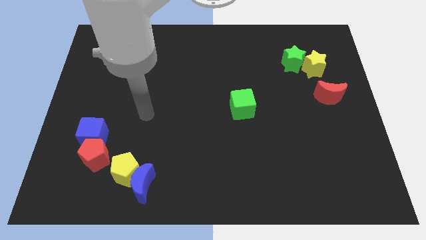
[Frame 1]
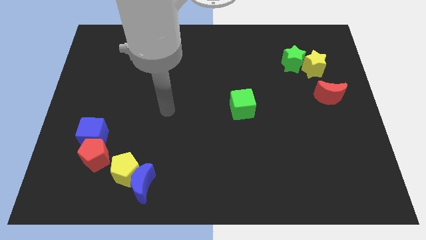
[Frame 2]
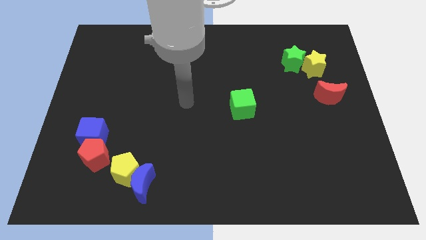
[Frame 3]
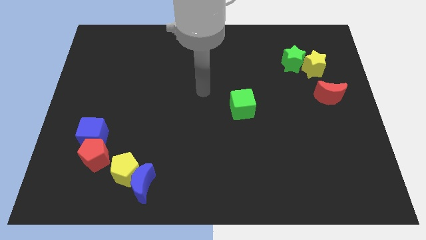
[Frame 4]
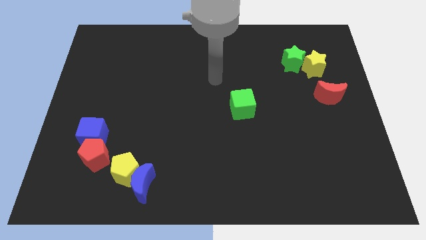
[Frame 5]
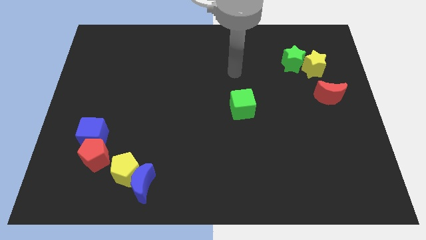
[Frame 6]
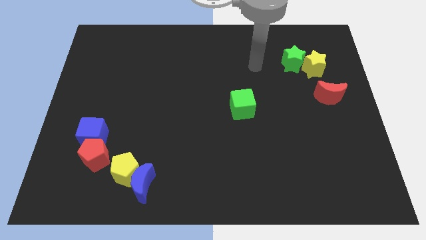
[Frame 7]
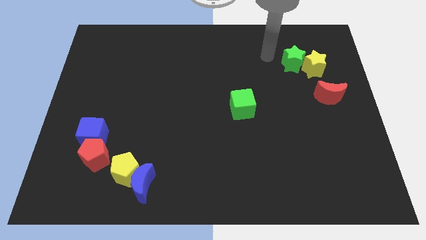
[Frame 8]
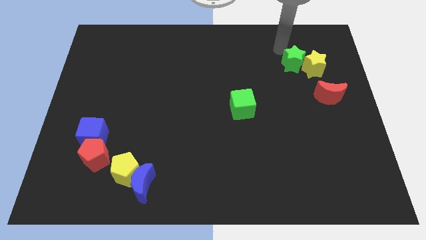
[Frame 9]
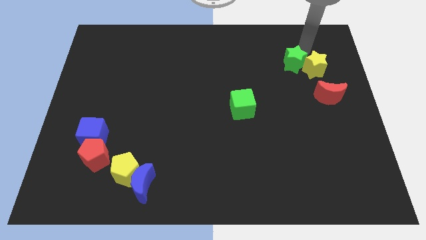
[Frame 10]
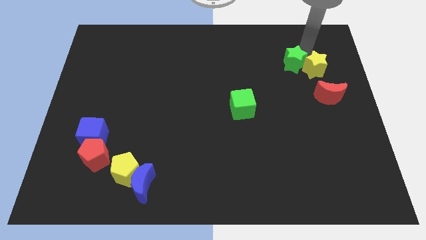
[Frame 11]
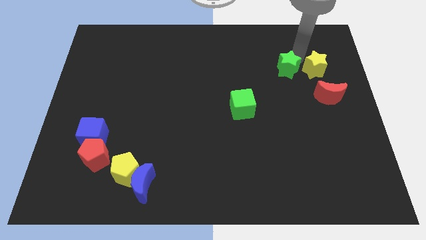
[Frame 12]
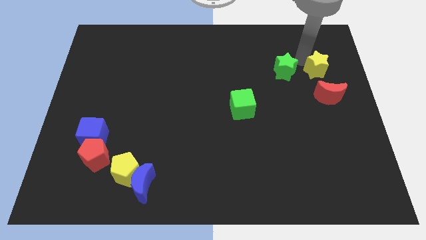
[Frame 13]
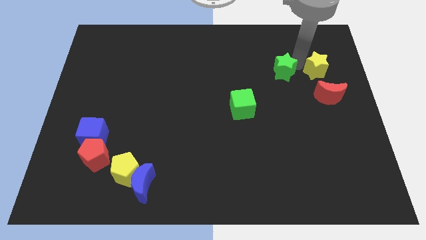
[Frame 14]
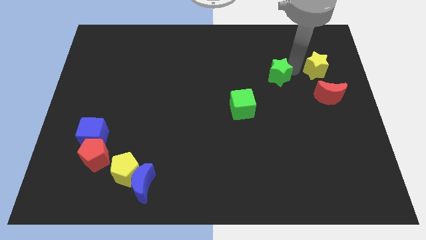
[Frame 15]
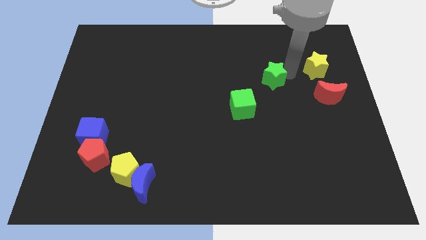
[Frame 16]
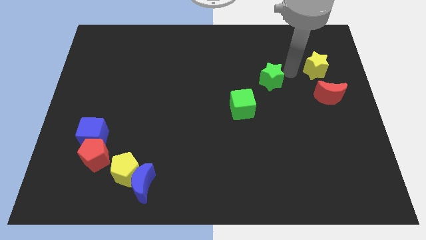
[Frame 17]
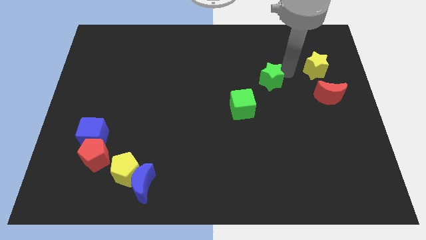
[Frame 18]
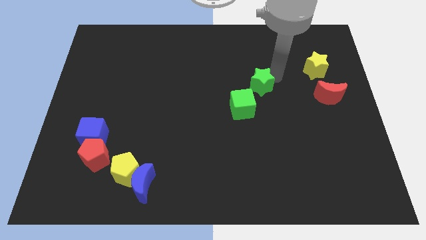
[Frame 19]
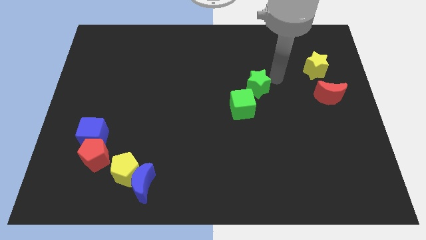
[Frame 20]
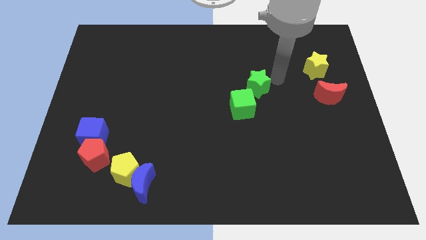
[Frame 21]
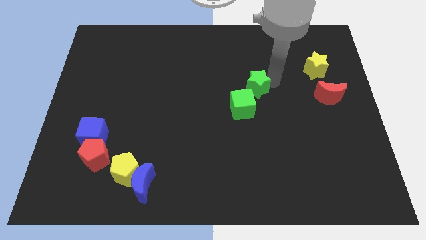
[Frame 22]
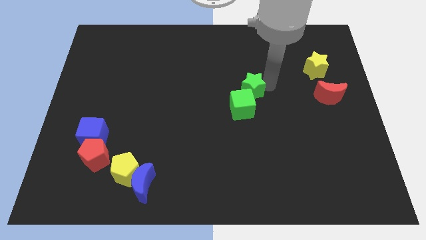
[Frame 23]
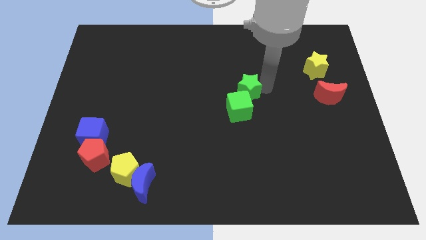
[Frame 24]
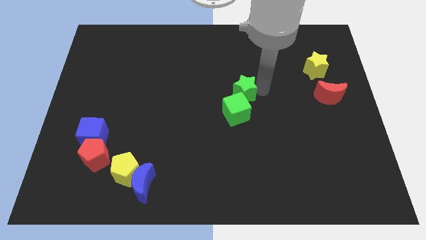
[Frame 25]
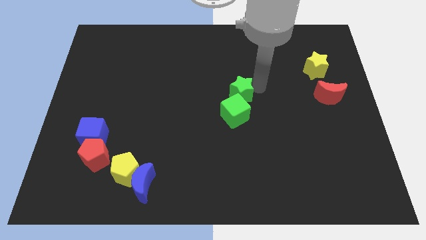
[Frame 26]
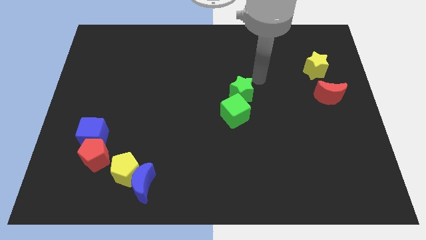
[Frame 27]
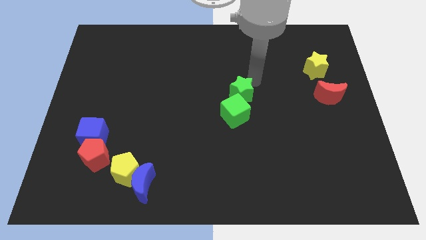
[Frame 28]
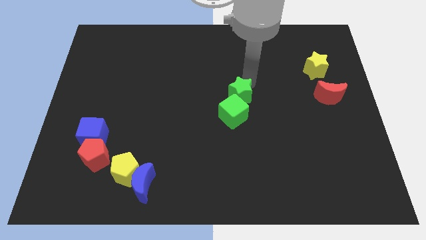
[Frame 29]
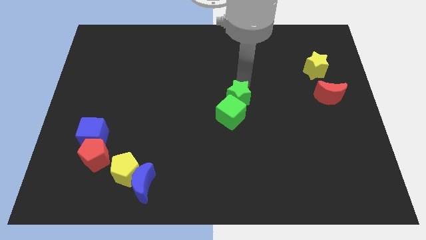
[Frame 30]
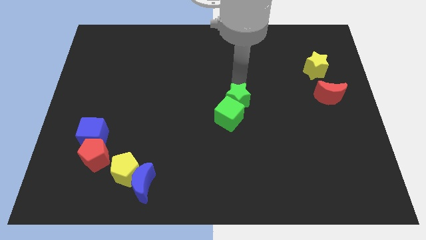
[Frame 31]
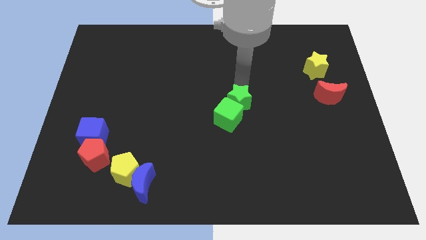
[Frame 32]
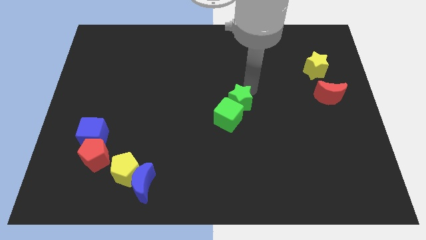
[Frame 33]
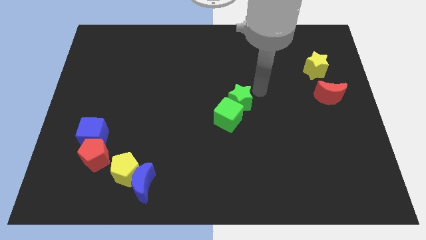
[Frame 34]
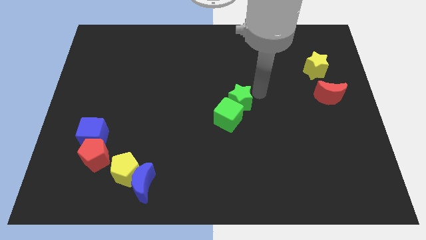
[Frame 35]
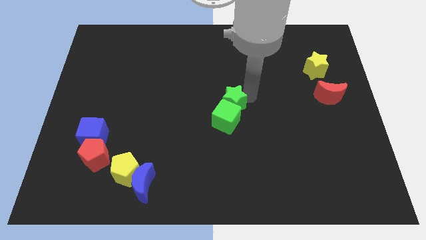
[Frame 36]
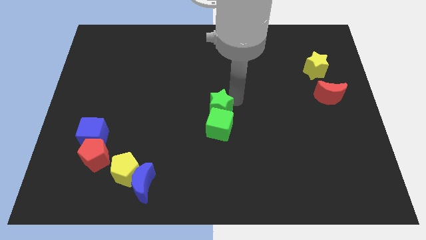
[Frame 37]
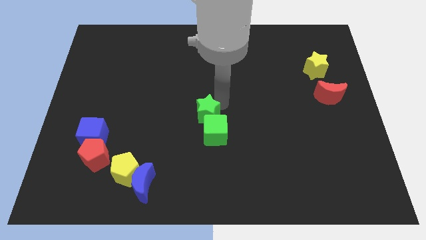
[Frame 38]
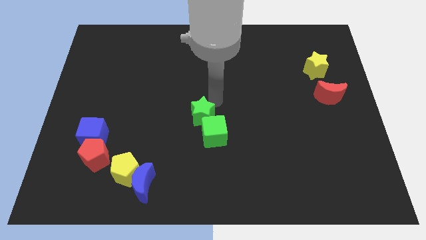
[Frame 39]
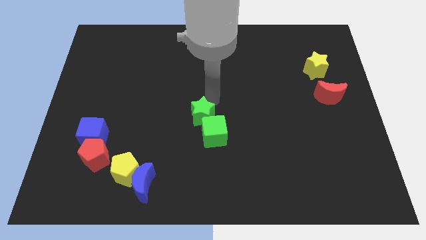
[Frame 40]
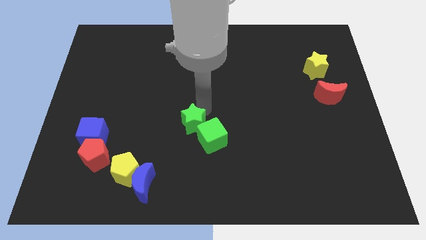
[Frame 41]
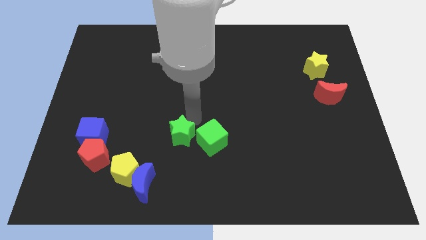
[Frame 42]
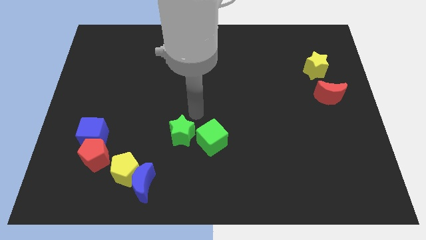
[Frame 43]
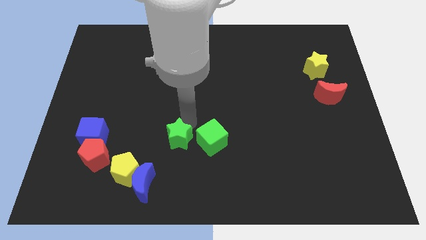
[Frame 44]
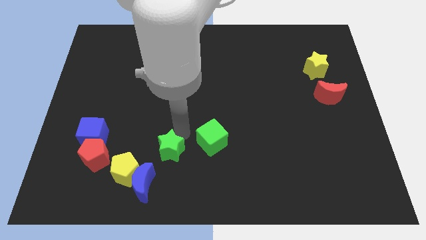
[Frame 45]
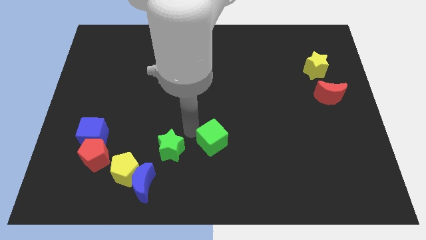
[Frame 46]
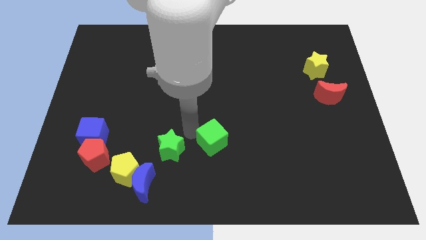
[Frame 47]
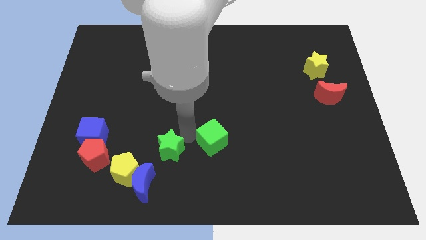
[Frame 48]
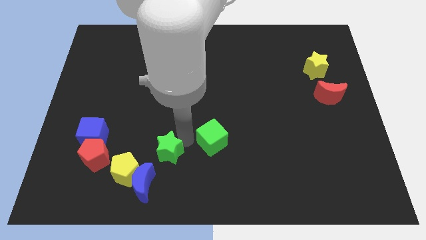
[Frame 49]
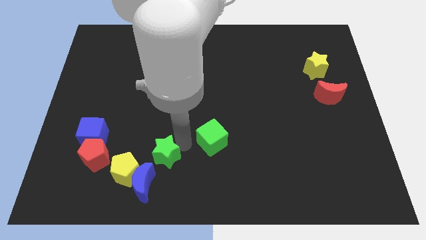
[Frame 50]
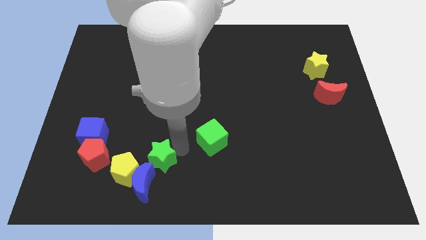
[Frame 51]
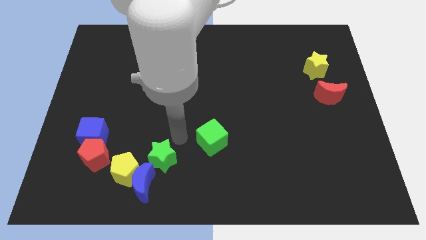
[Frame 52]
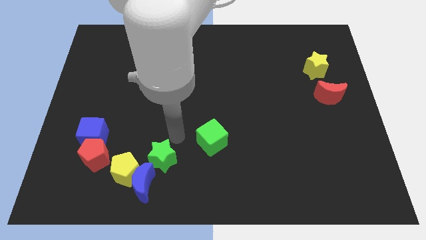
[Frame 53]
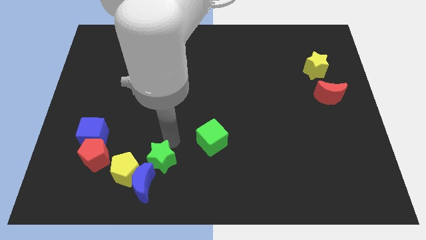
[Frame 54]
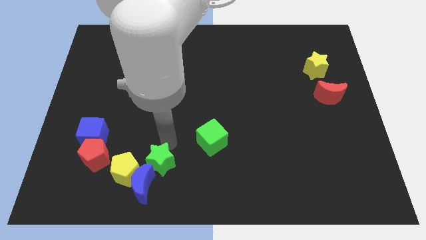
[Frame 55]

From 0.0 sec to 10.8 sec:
put the green star next to the blue moon

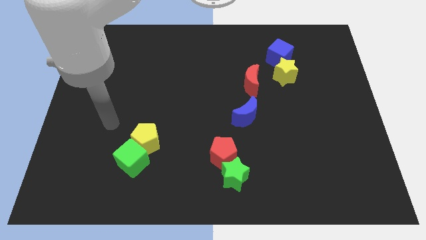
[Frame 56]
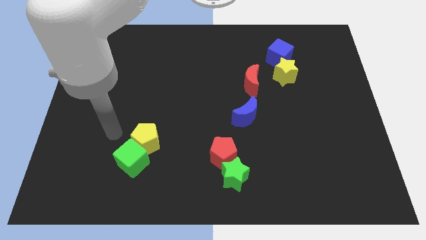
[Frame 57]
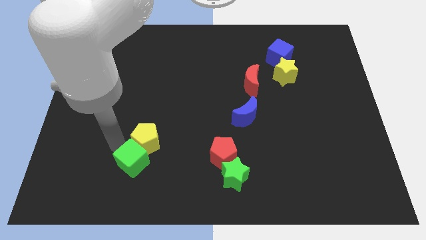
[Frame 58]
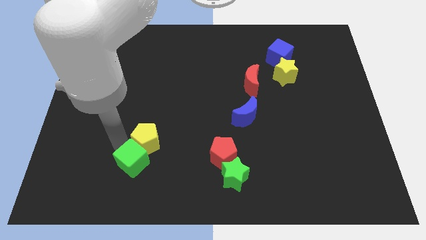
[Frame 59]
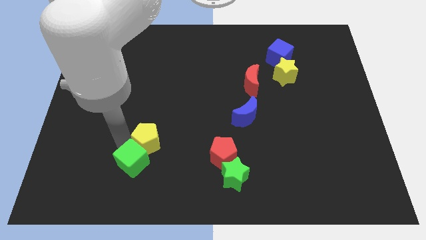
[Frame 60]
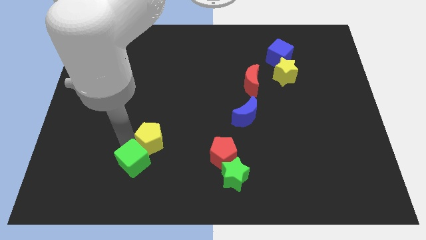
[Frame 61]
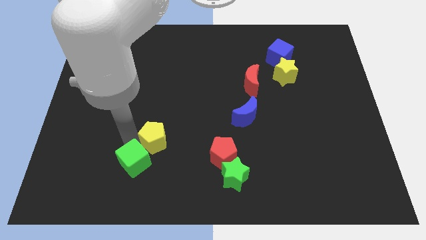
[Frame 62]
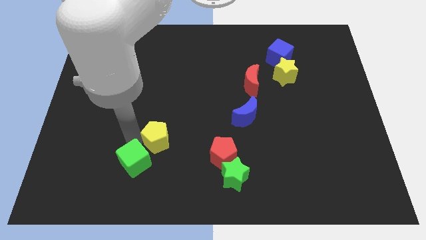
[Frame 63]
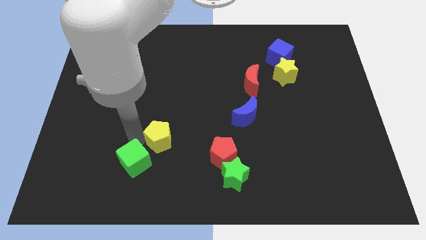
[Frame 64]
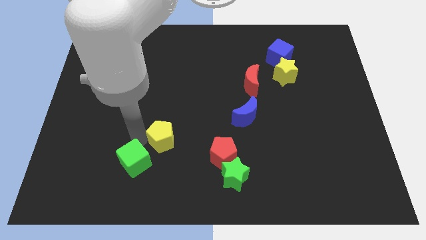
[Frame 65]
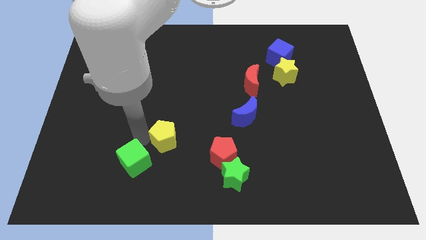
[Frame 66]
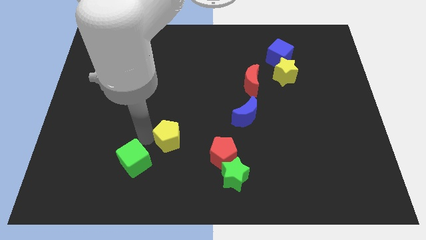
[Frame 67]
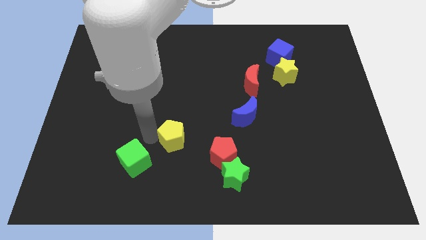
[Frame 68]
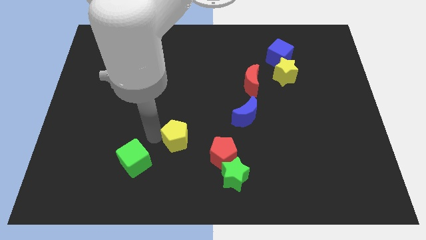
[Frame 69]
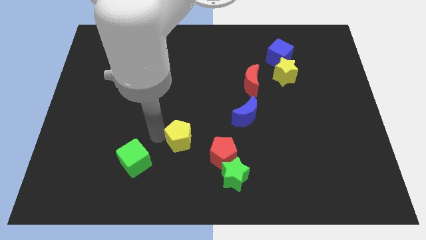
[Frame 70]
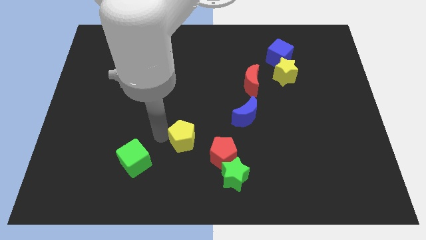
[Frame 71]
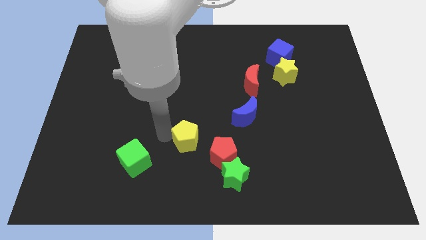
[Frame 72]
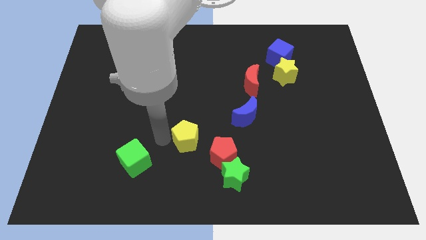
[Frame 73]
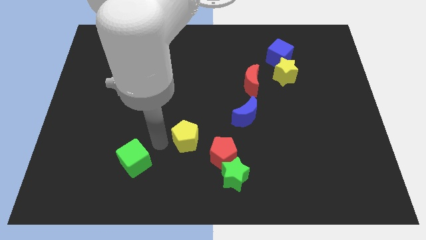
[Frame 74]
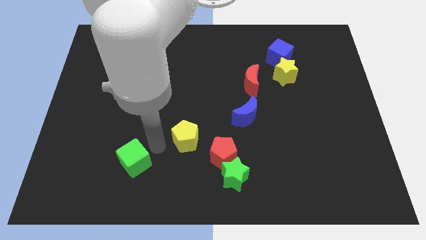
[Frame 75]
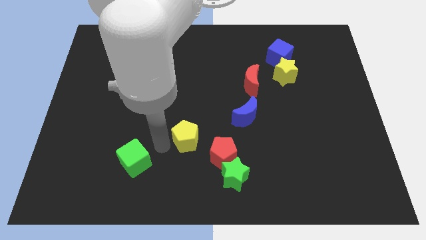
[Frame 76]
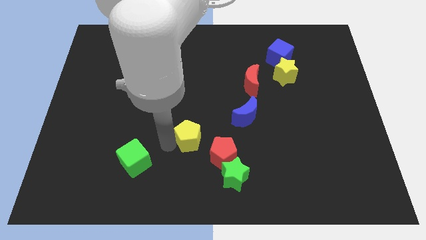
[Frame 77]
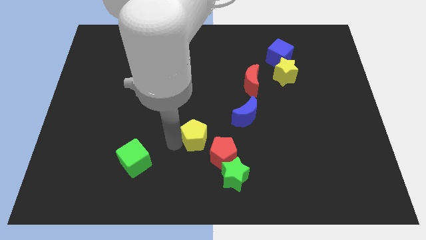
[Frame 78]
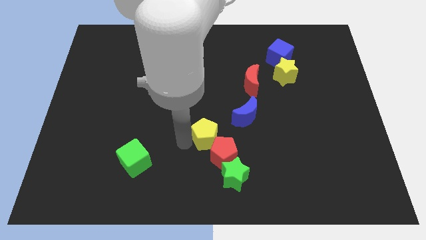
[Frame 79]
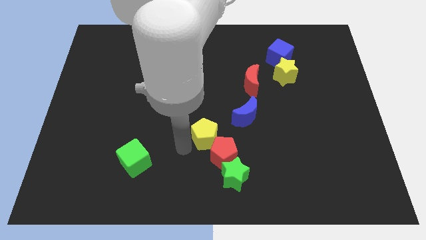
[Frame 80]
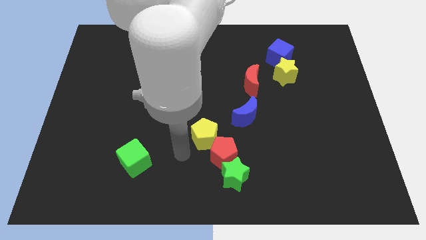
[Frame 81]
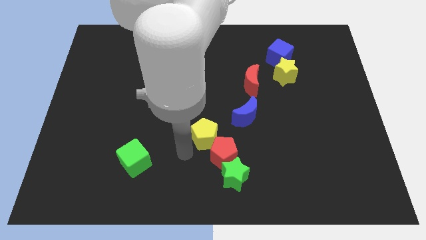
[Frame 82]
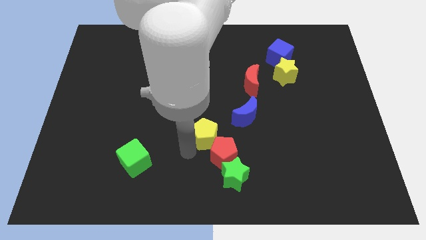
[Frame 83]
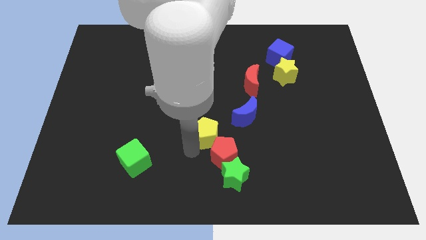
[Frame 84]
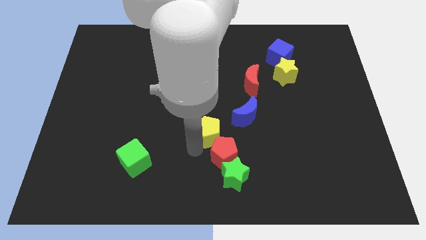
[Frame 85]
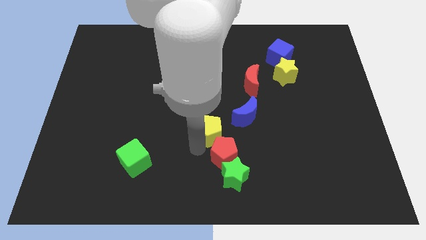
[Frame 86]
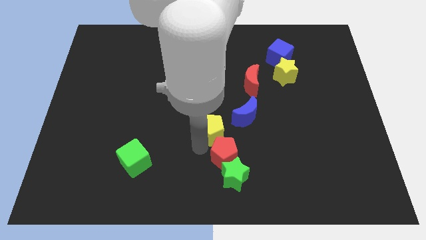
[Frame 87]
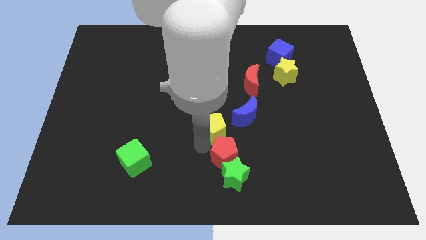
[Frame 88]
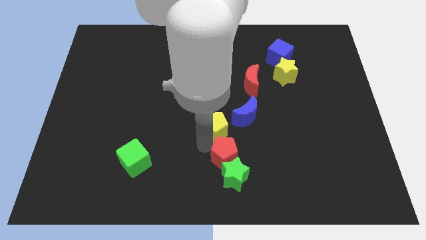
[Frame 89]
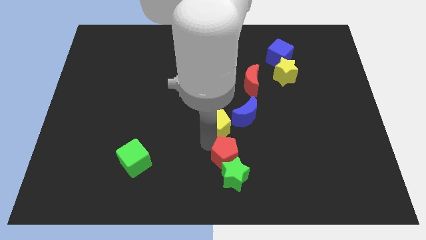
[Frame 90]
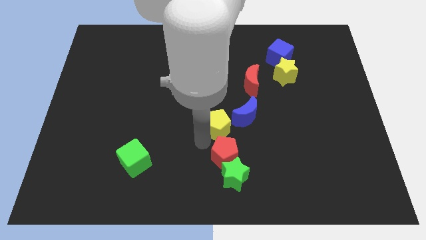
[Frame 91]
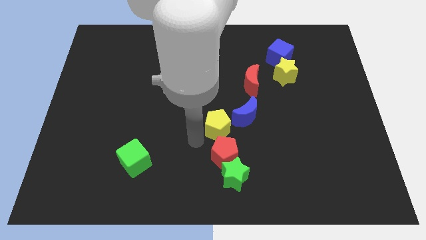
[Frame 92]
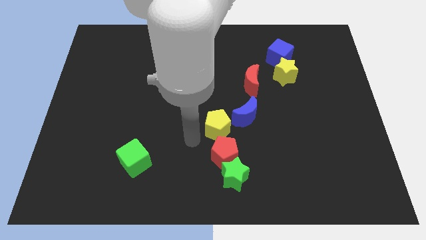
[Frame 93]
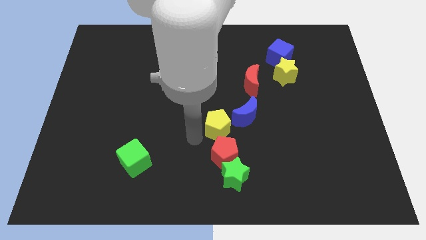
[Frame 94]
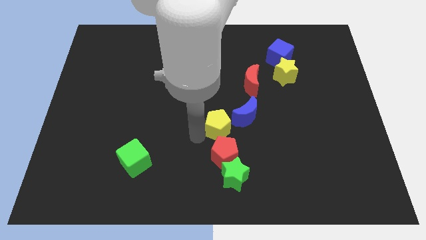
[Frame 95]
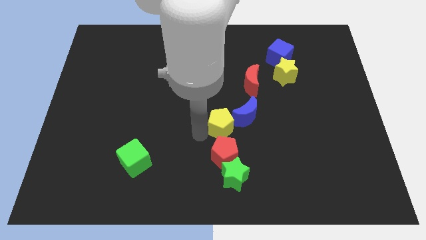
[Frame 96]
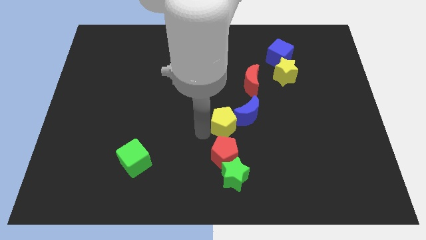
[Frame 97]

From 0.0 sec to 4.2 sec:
push the yellow pentagon close to the blue moon
